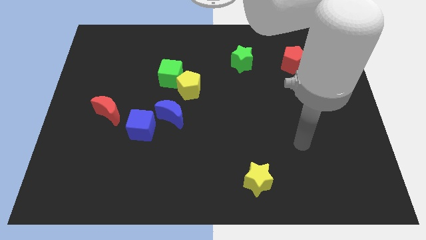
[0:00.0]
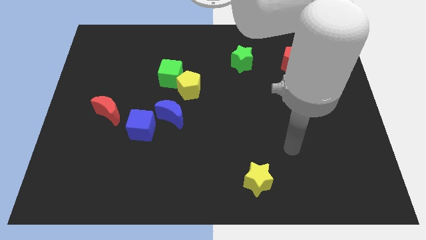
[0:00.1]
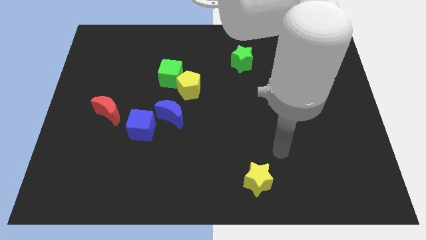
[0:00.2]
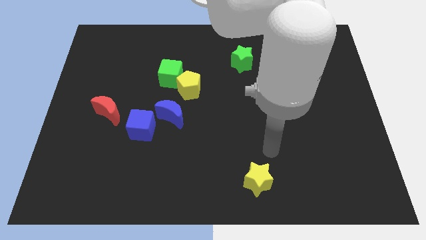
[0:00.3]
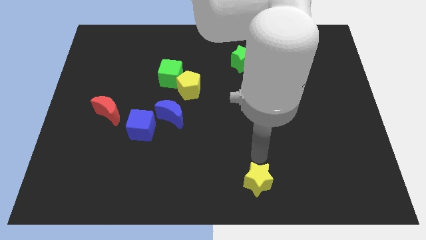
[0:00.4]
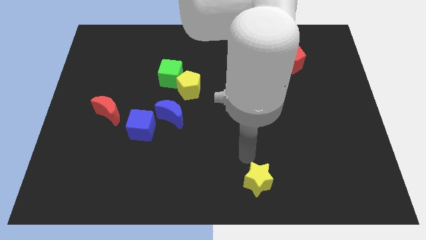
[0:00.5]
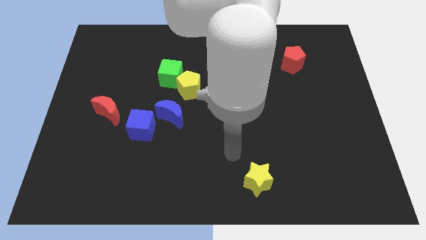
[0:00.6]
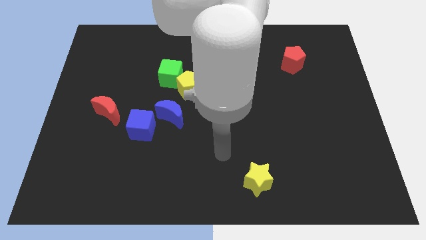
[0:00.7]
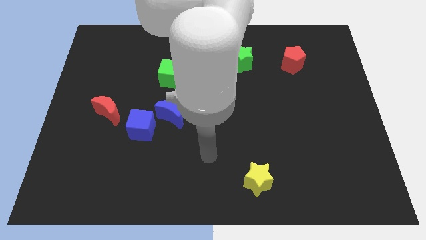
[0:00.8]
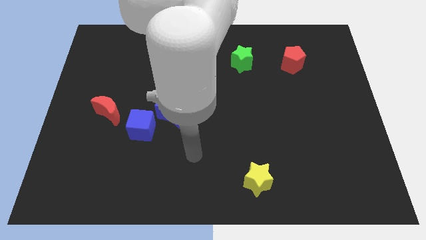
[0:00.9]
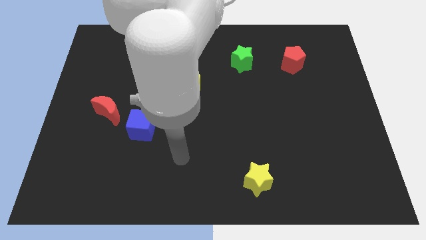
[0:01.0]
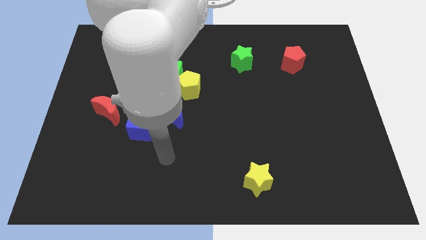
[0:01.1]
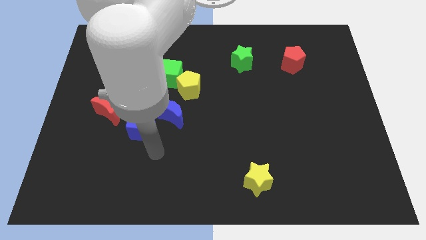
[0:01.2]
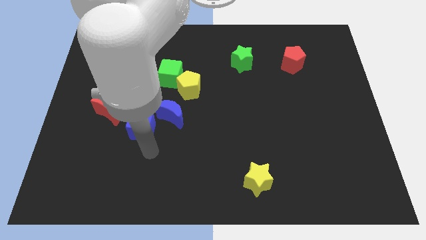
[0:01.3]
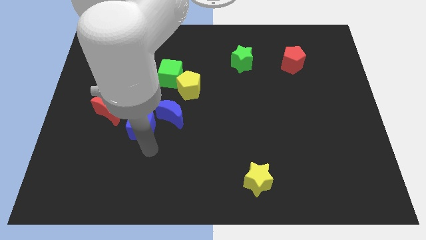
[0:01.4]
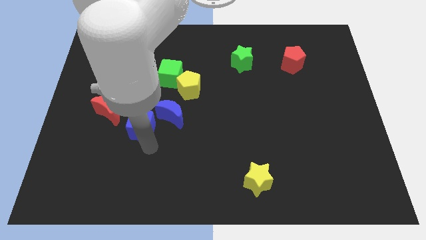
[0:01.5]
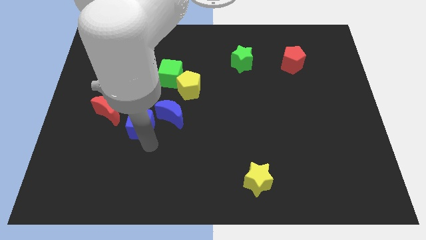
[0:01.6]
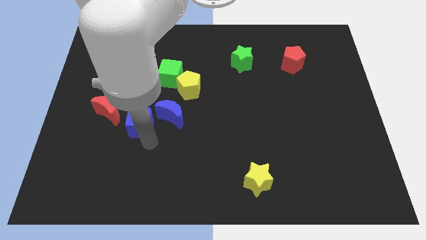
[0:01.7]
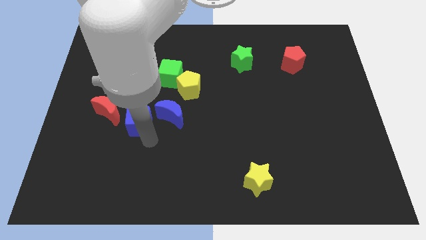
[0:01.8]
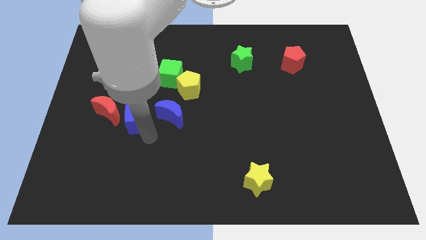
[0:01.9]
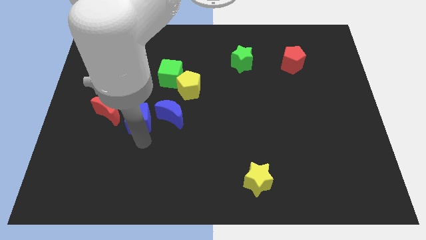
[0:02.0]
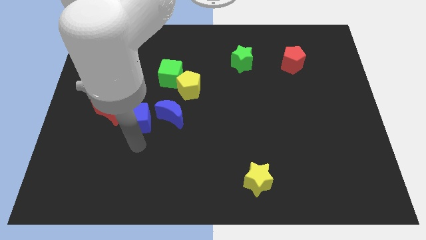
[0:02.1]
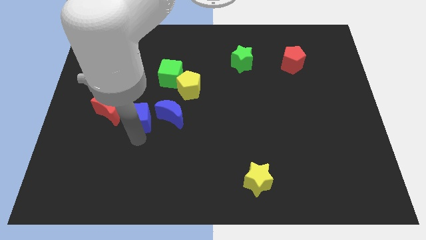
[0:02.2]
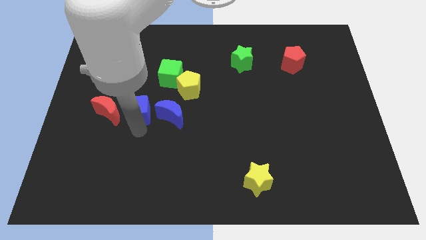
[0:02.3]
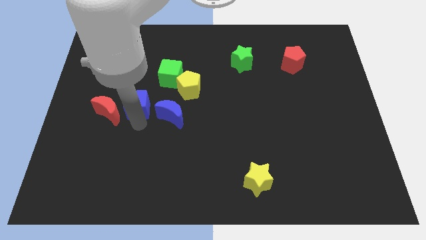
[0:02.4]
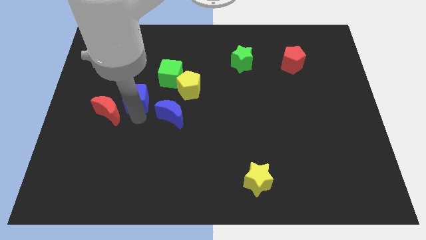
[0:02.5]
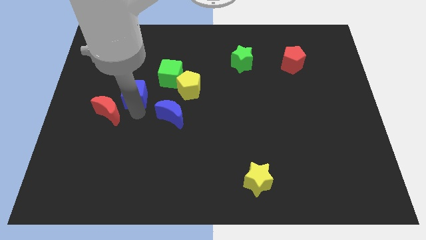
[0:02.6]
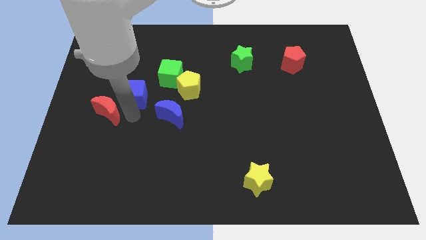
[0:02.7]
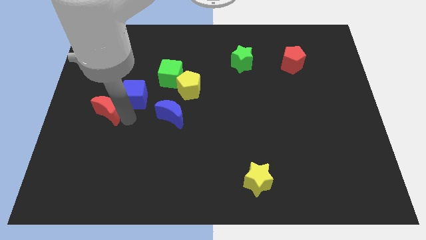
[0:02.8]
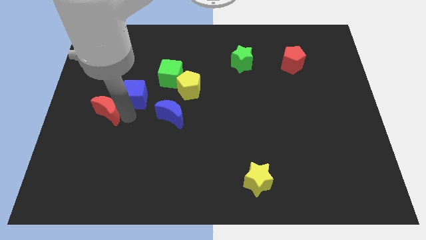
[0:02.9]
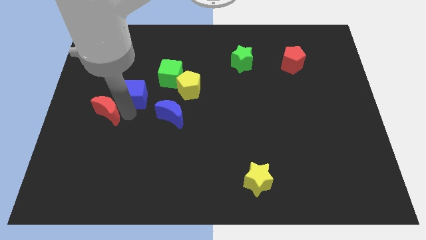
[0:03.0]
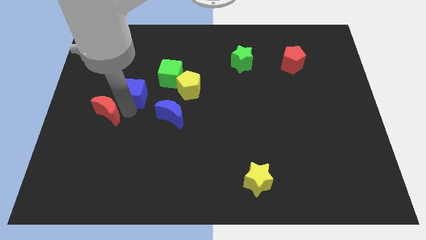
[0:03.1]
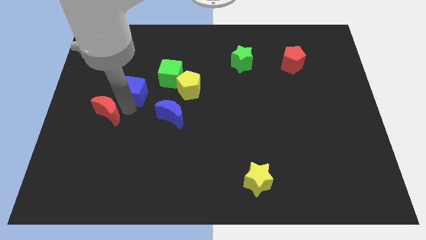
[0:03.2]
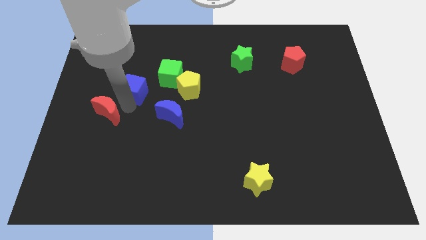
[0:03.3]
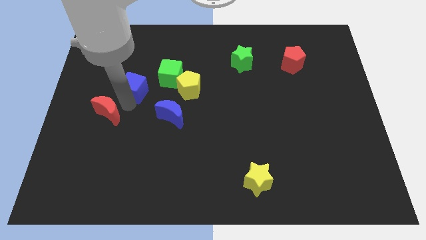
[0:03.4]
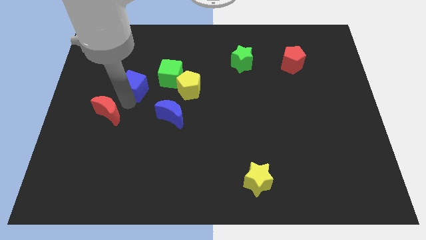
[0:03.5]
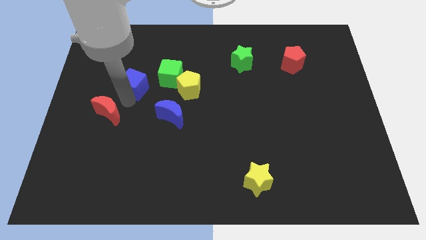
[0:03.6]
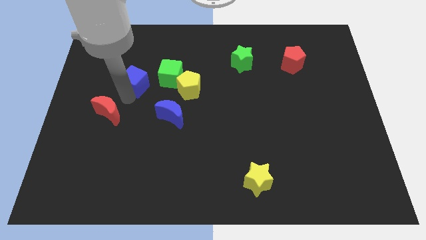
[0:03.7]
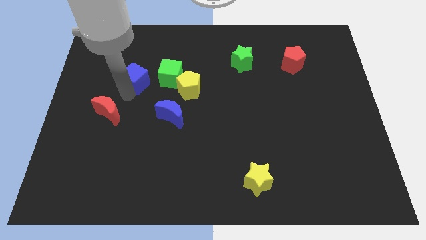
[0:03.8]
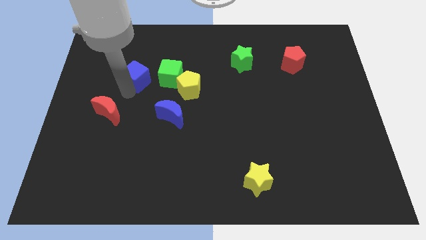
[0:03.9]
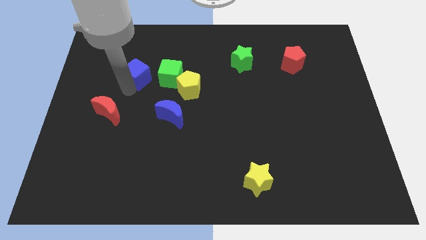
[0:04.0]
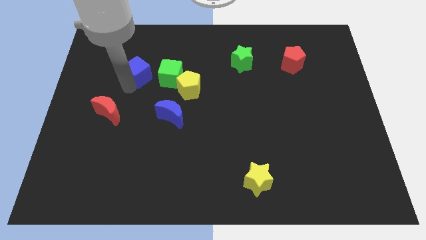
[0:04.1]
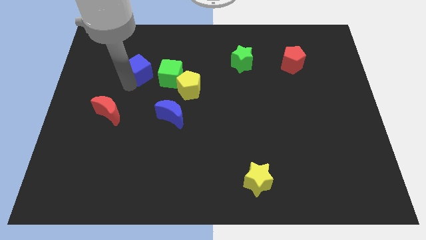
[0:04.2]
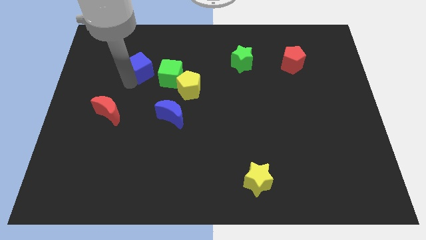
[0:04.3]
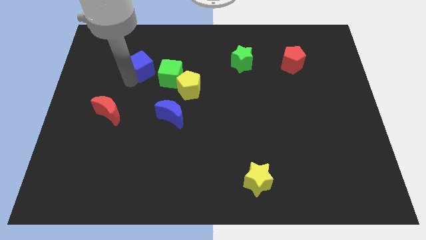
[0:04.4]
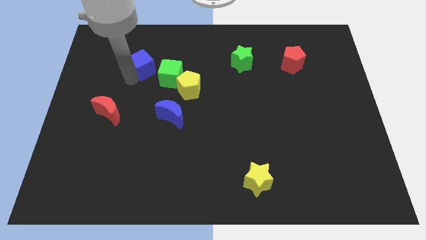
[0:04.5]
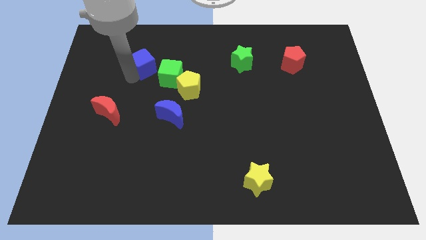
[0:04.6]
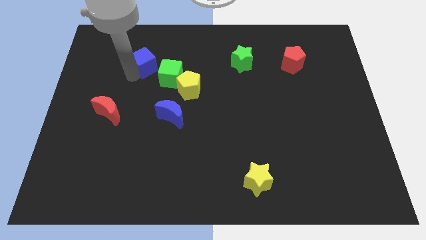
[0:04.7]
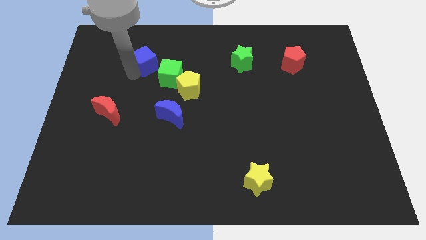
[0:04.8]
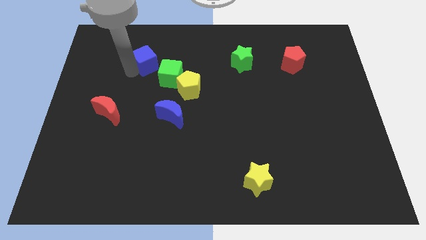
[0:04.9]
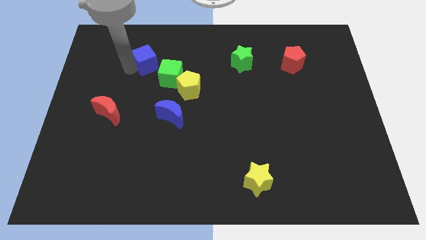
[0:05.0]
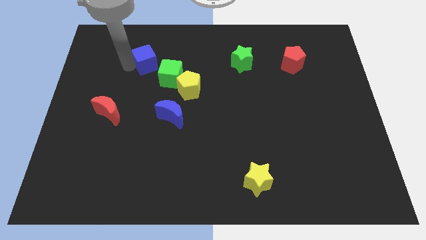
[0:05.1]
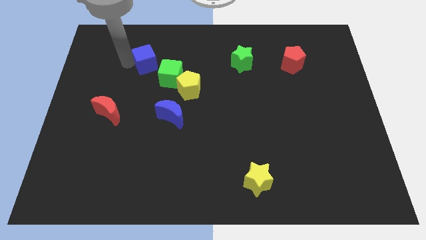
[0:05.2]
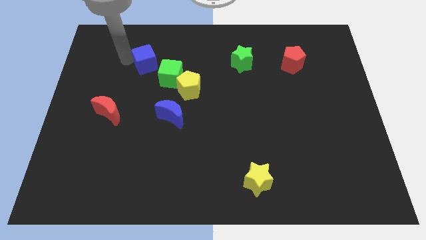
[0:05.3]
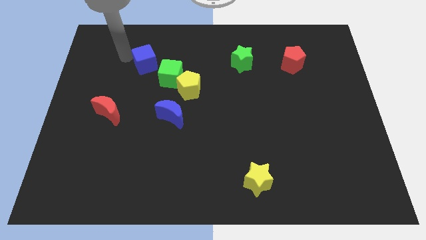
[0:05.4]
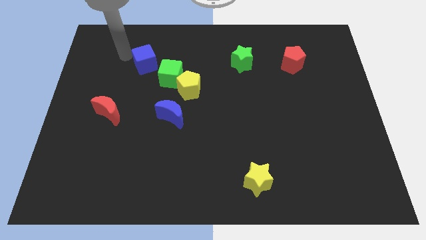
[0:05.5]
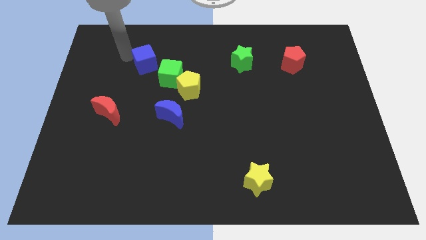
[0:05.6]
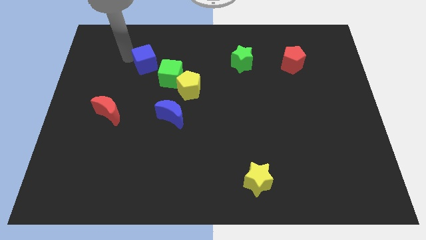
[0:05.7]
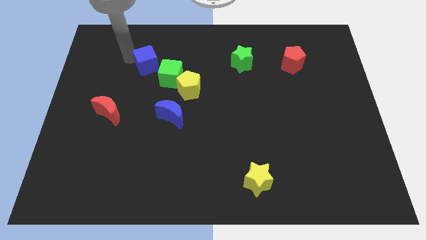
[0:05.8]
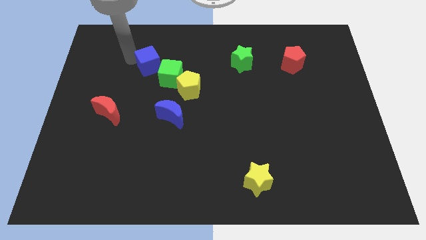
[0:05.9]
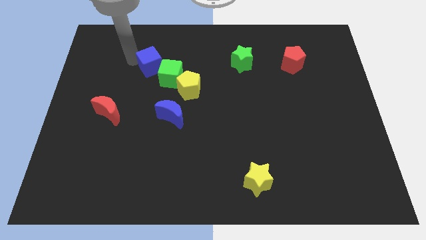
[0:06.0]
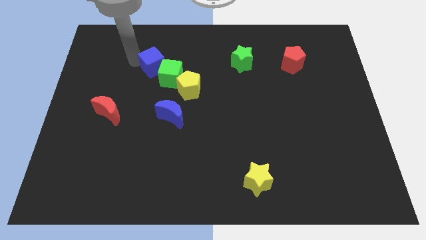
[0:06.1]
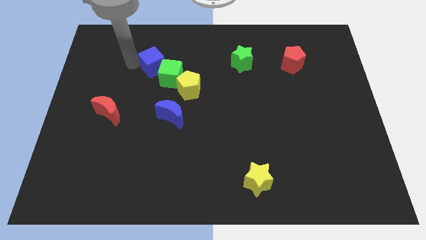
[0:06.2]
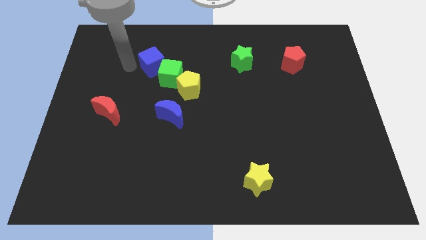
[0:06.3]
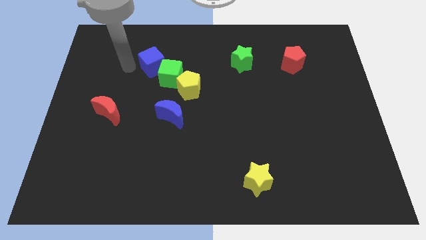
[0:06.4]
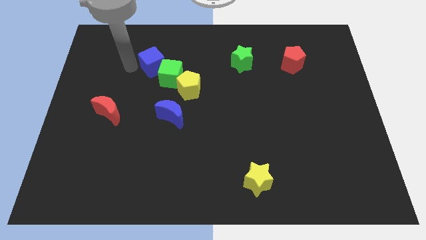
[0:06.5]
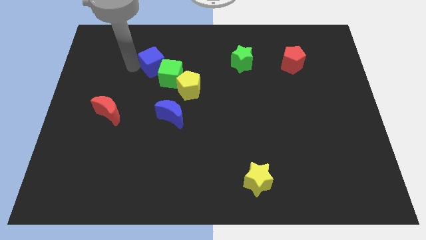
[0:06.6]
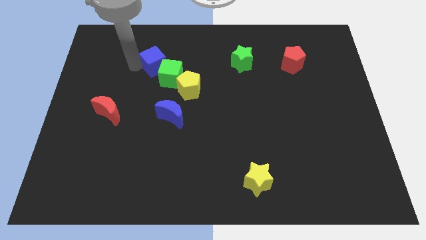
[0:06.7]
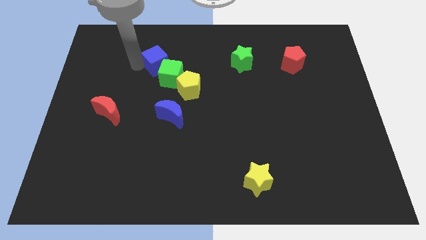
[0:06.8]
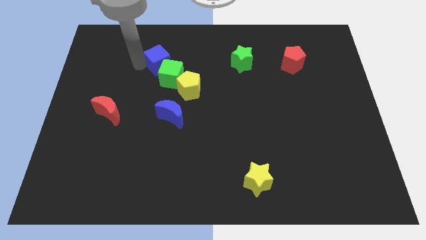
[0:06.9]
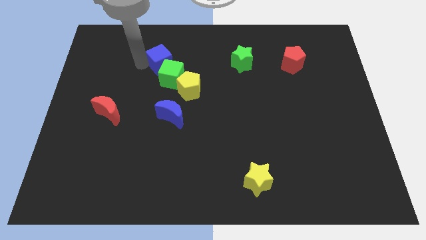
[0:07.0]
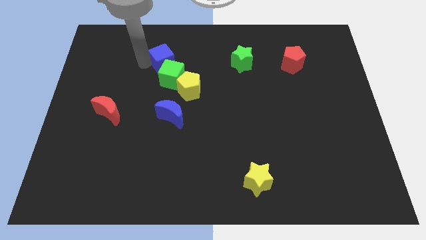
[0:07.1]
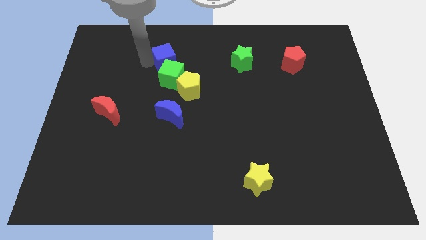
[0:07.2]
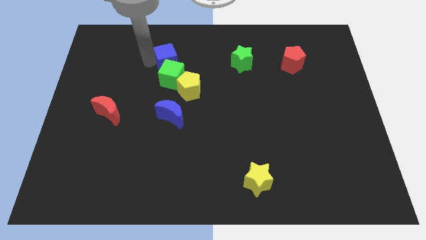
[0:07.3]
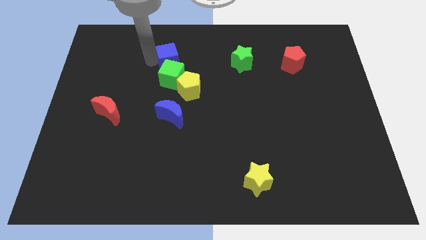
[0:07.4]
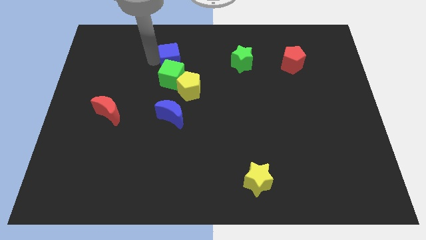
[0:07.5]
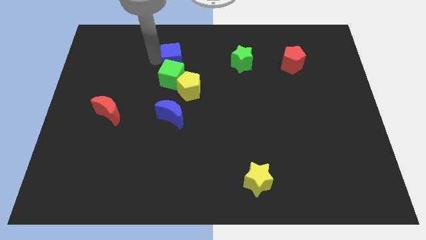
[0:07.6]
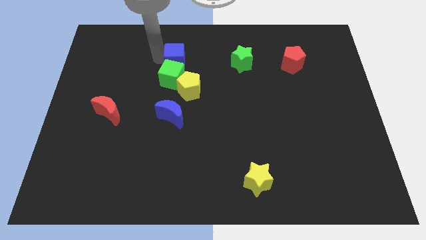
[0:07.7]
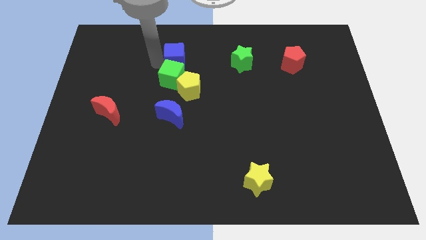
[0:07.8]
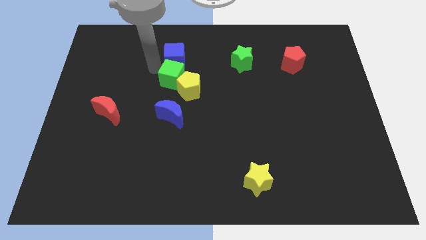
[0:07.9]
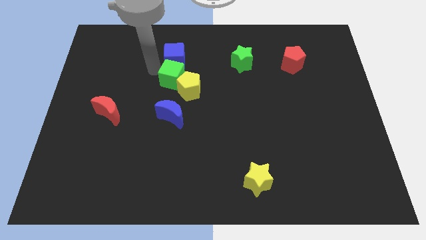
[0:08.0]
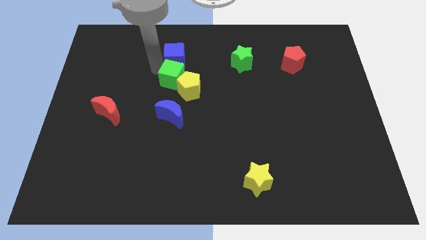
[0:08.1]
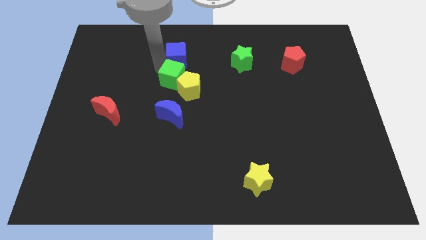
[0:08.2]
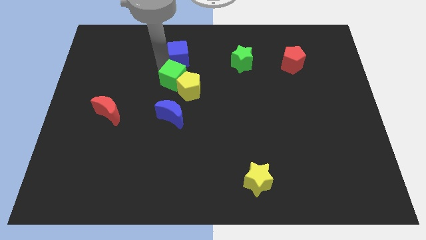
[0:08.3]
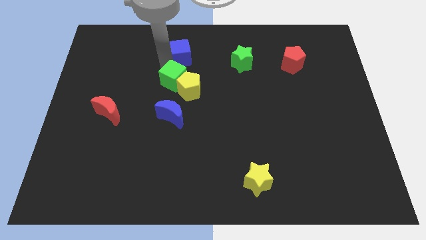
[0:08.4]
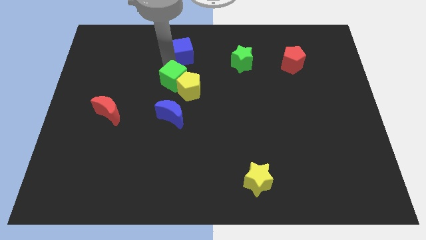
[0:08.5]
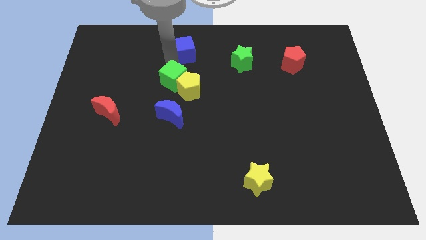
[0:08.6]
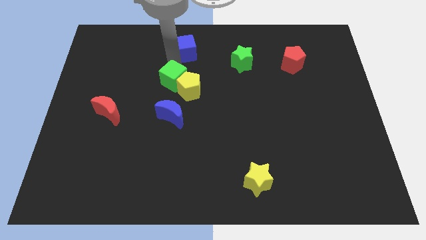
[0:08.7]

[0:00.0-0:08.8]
slide the blue cube to the top side
